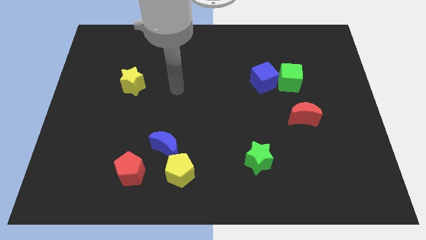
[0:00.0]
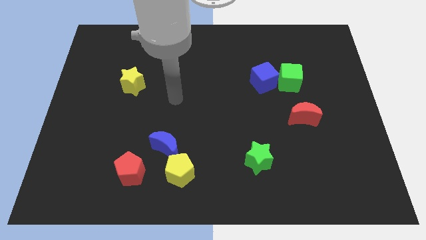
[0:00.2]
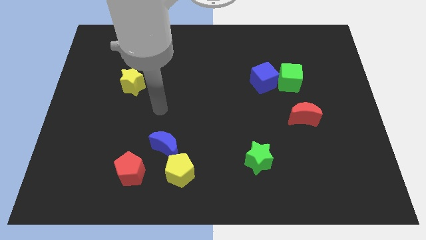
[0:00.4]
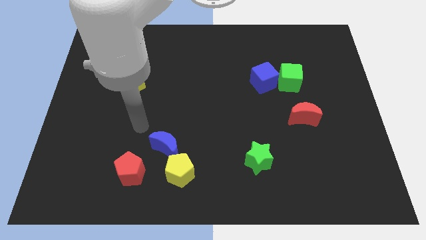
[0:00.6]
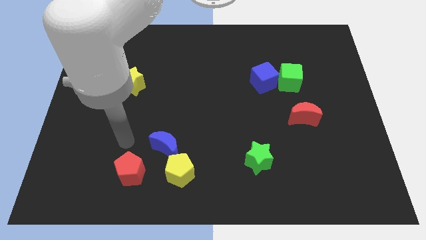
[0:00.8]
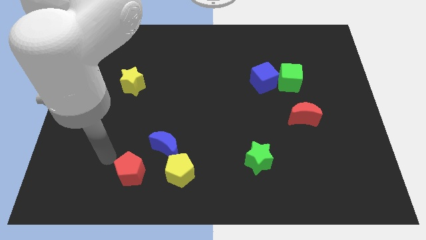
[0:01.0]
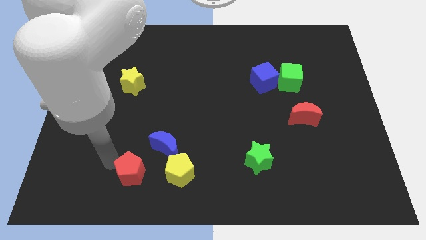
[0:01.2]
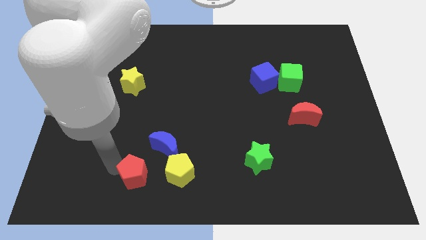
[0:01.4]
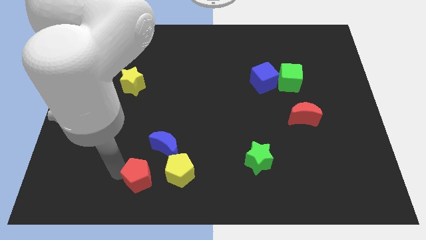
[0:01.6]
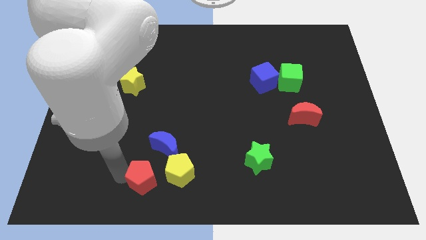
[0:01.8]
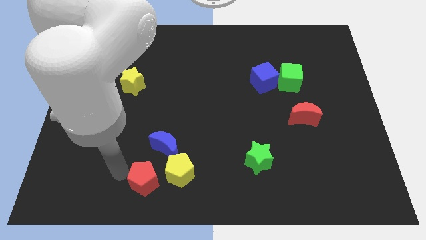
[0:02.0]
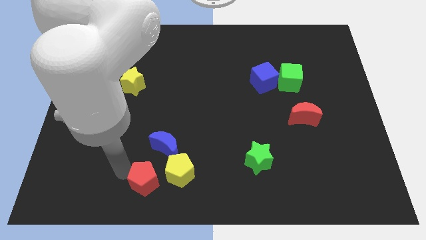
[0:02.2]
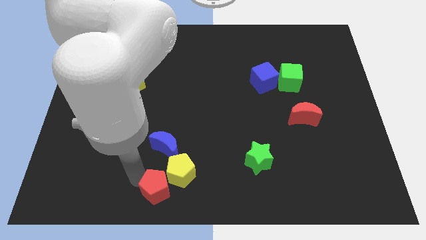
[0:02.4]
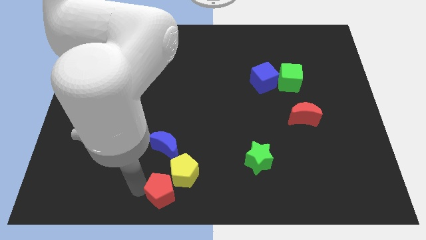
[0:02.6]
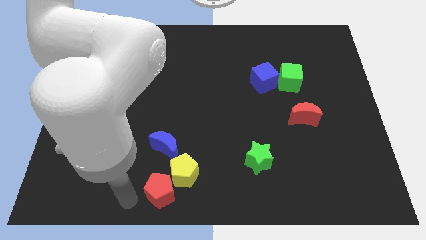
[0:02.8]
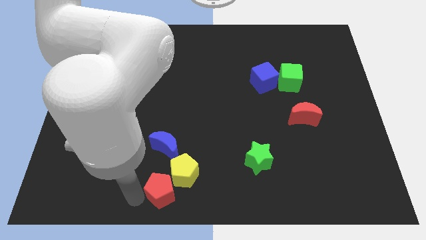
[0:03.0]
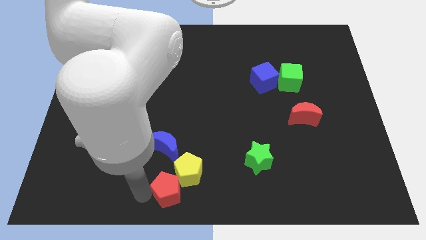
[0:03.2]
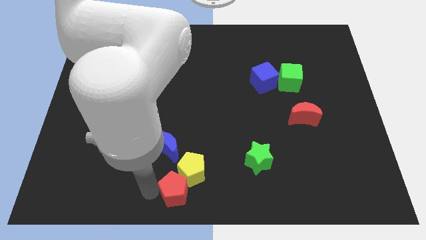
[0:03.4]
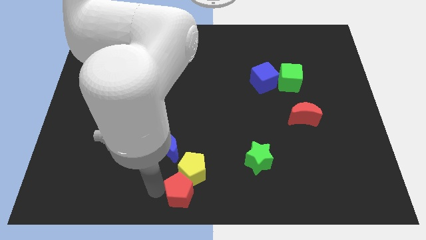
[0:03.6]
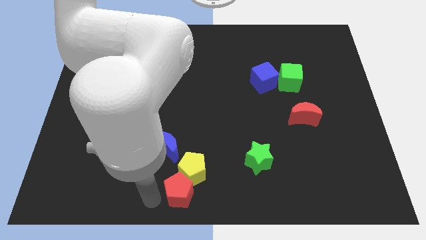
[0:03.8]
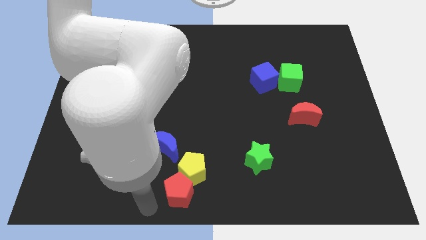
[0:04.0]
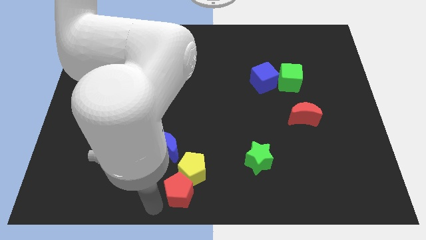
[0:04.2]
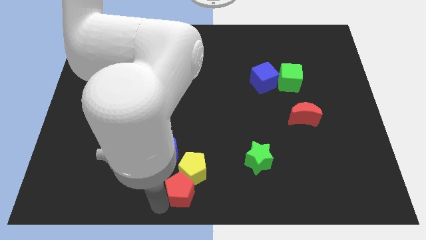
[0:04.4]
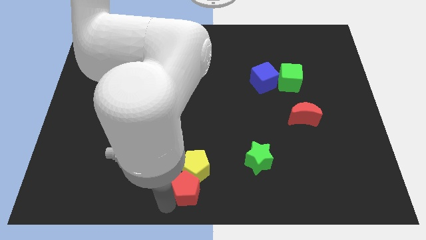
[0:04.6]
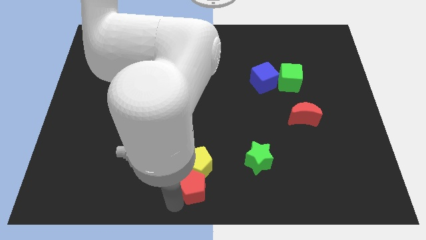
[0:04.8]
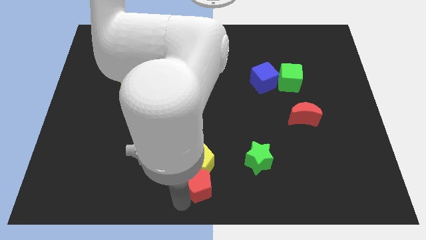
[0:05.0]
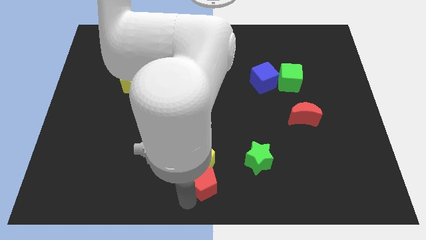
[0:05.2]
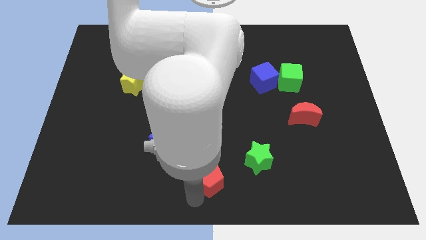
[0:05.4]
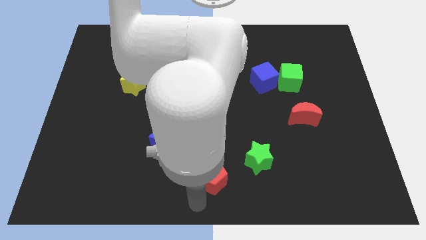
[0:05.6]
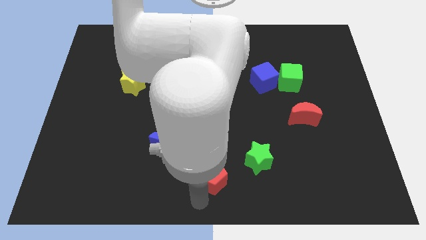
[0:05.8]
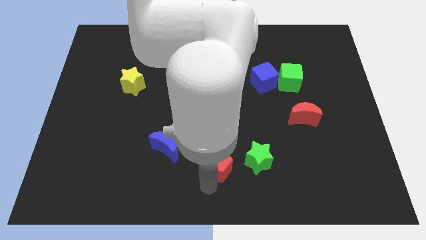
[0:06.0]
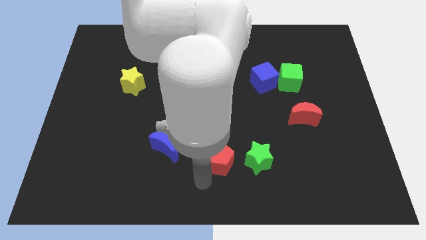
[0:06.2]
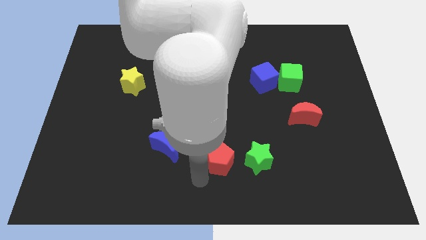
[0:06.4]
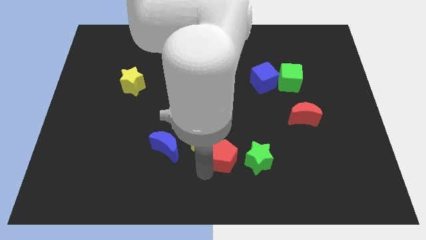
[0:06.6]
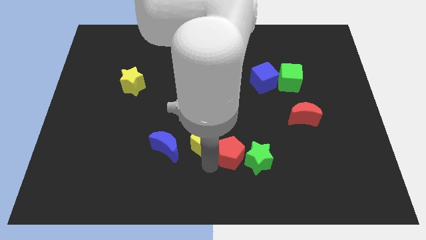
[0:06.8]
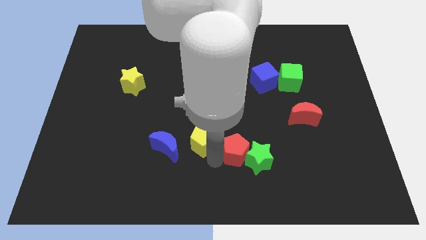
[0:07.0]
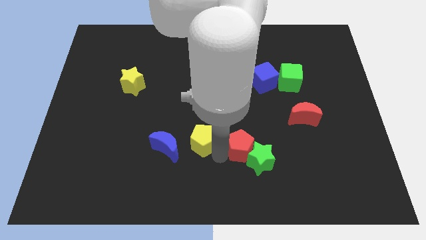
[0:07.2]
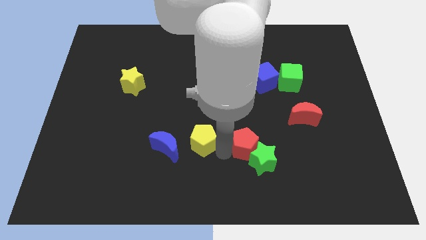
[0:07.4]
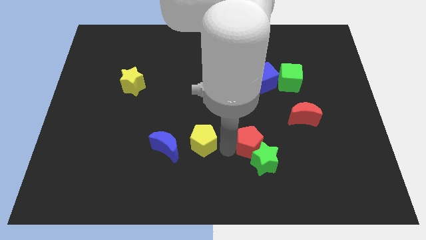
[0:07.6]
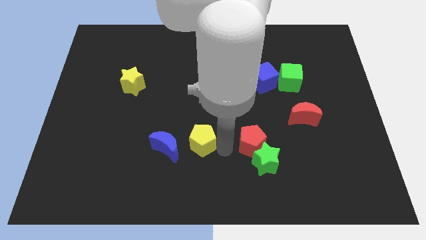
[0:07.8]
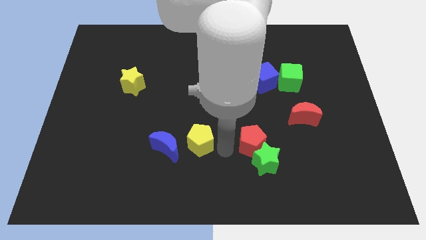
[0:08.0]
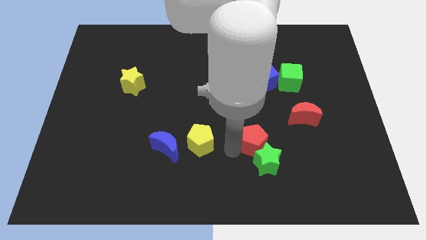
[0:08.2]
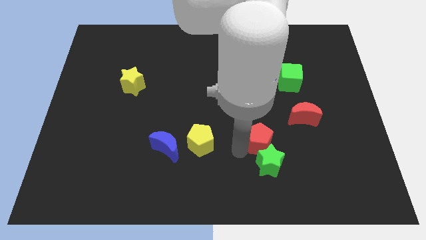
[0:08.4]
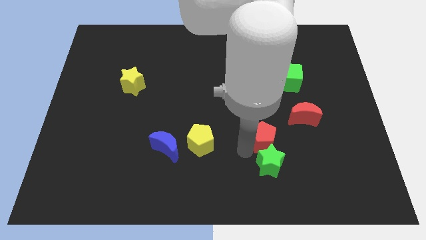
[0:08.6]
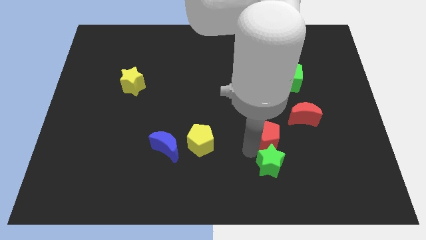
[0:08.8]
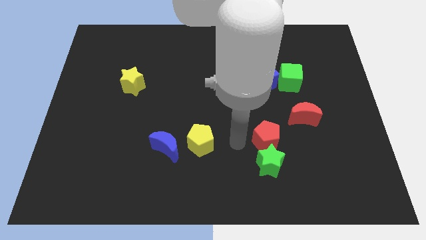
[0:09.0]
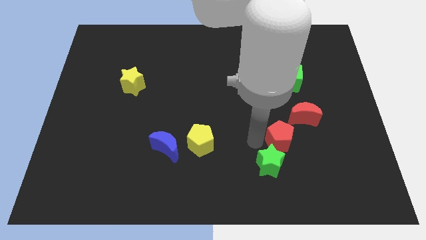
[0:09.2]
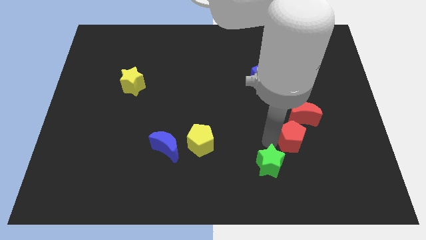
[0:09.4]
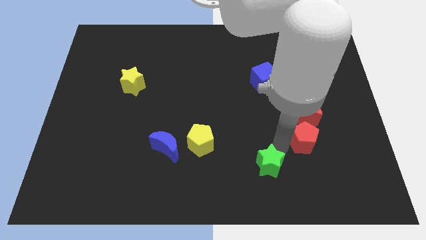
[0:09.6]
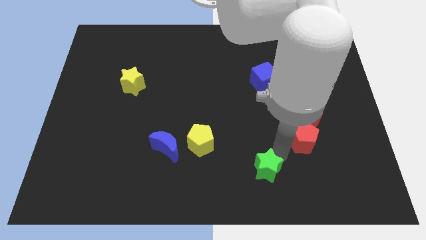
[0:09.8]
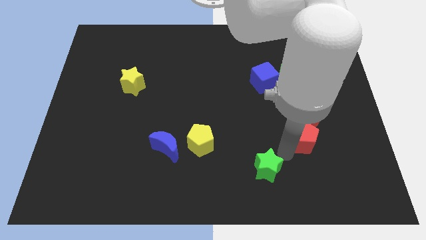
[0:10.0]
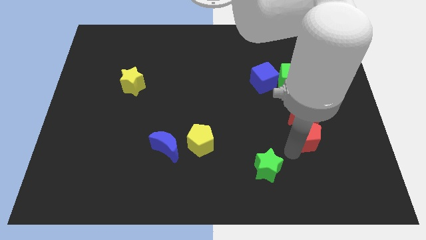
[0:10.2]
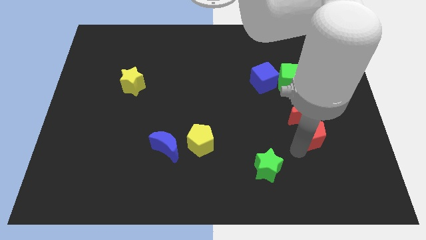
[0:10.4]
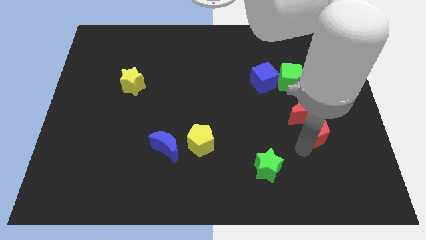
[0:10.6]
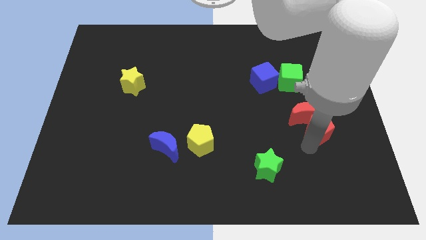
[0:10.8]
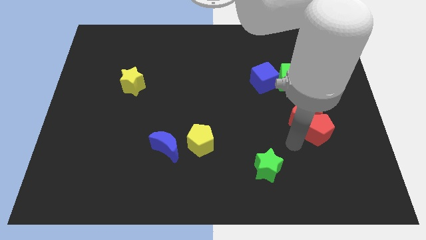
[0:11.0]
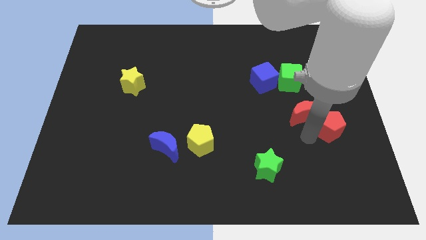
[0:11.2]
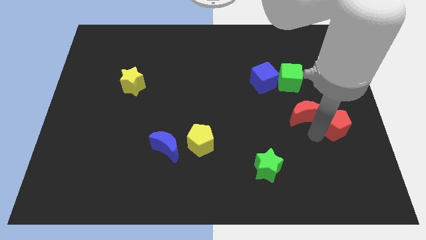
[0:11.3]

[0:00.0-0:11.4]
slide the red pentagon to the right side of the board

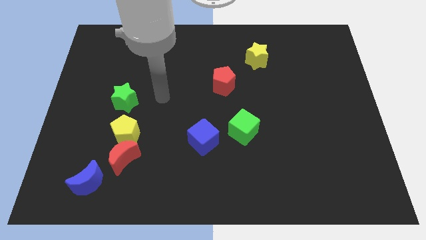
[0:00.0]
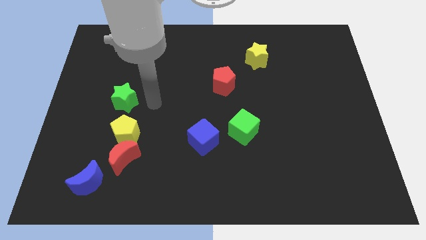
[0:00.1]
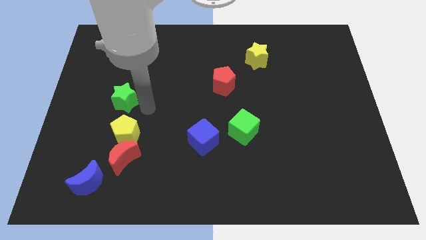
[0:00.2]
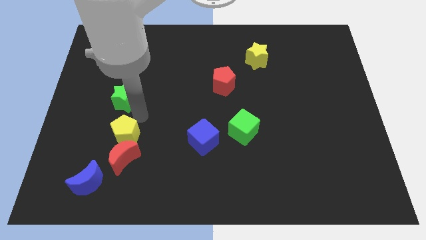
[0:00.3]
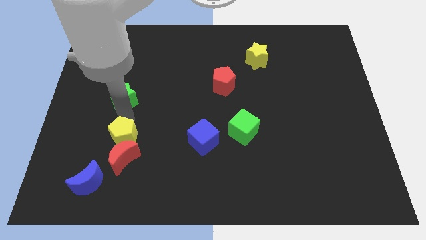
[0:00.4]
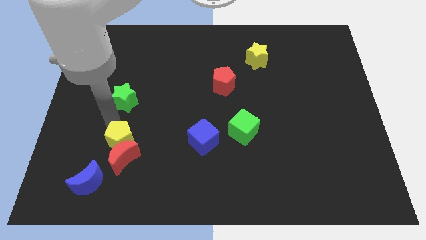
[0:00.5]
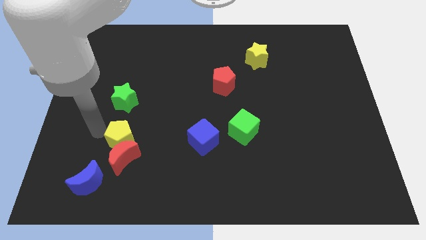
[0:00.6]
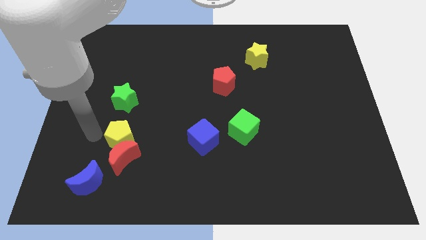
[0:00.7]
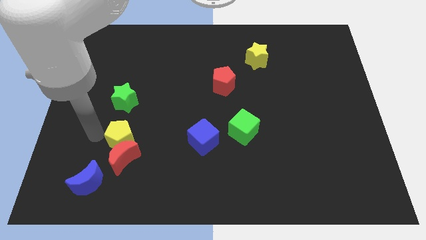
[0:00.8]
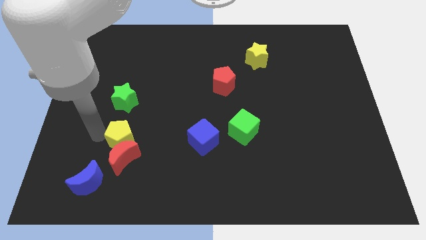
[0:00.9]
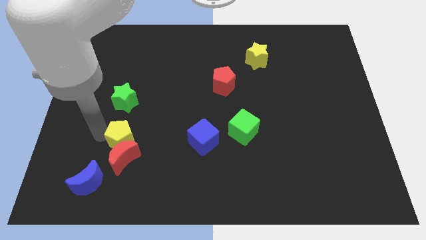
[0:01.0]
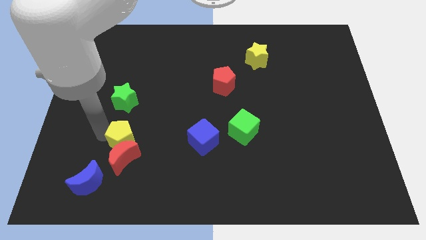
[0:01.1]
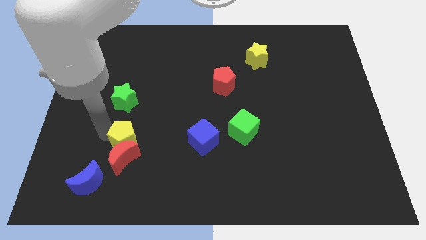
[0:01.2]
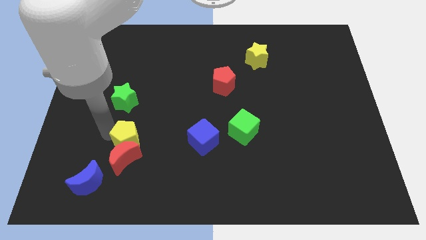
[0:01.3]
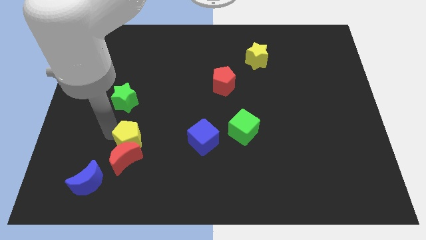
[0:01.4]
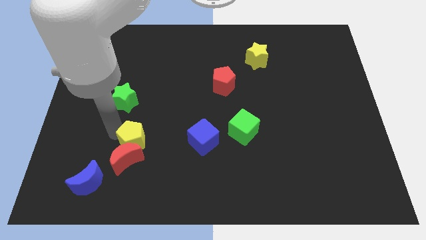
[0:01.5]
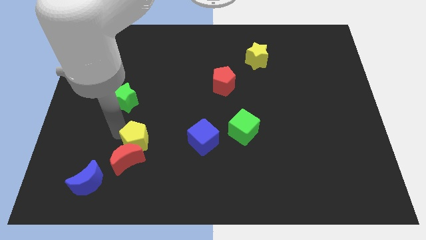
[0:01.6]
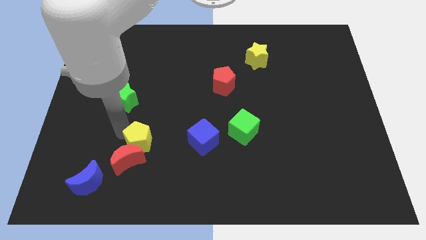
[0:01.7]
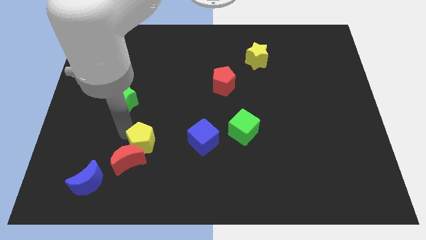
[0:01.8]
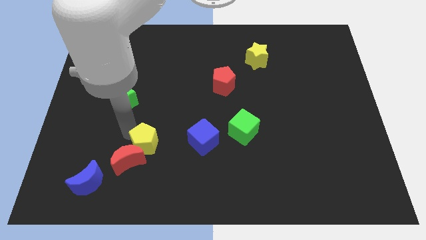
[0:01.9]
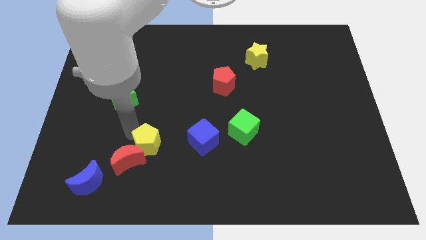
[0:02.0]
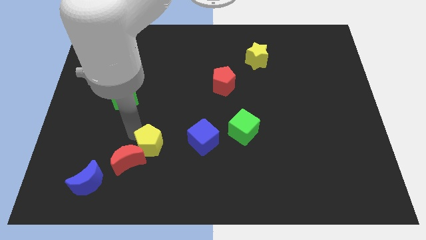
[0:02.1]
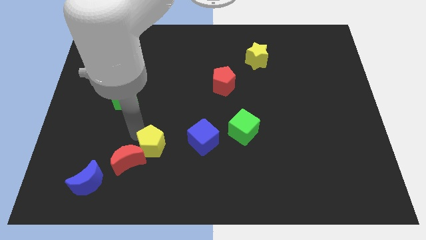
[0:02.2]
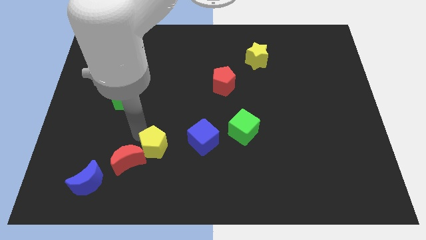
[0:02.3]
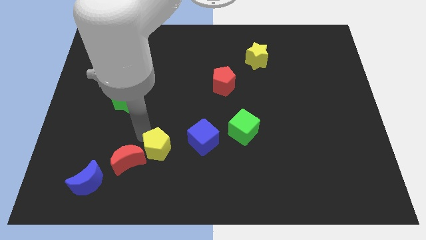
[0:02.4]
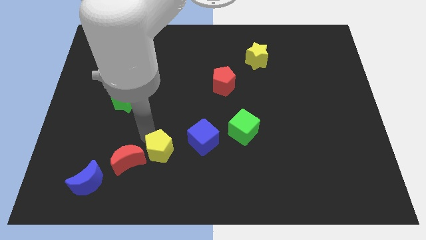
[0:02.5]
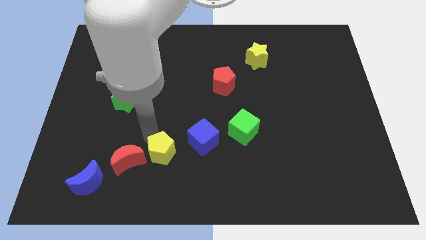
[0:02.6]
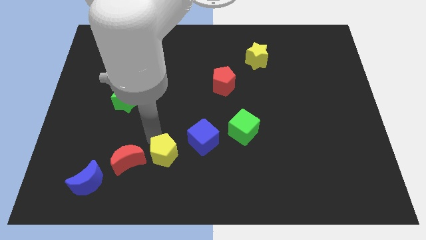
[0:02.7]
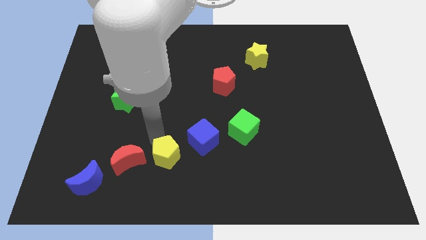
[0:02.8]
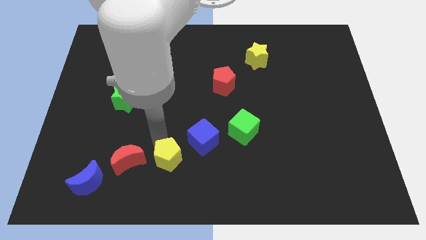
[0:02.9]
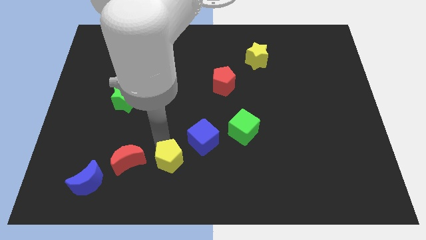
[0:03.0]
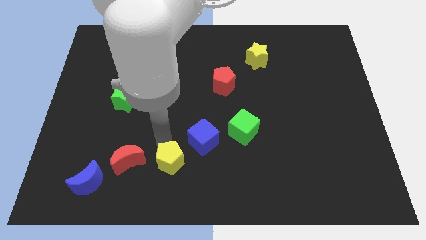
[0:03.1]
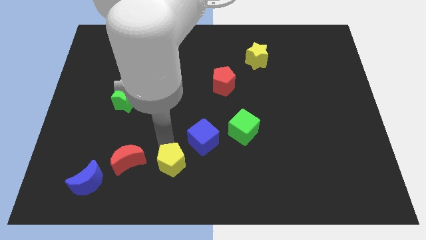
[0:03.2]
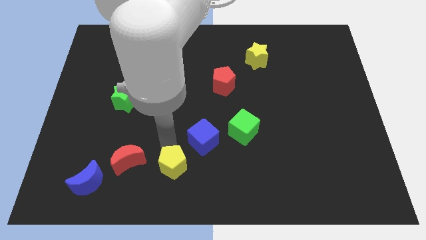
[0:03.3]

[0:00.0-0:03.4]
slide the yellow pentagon to the bottom side
